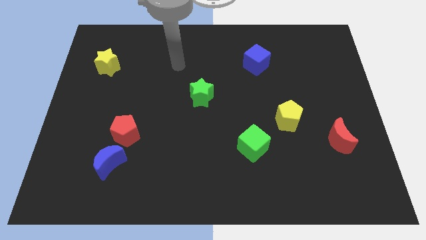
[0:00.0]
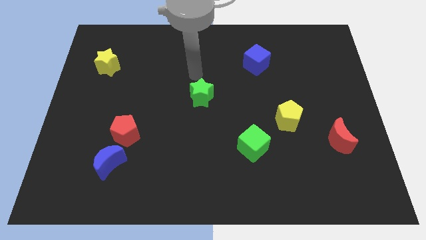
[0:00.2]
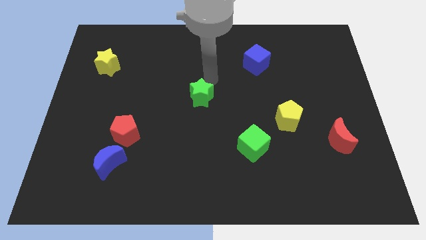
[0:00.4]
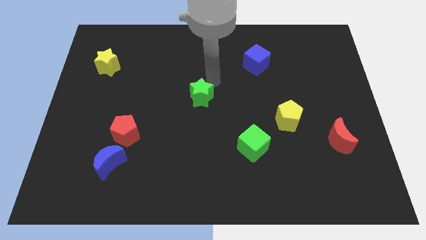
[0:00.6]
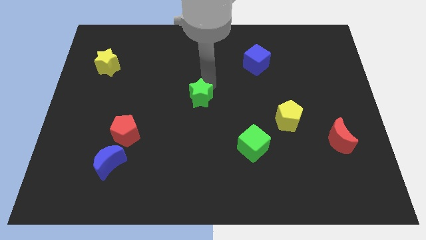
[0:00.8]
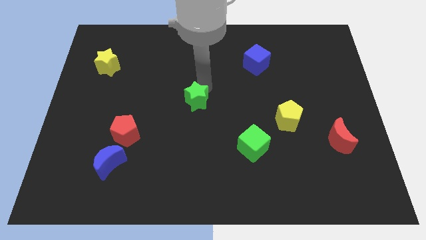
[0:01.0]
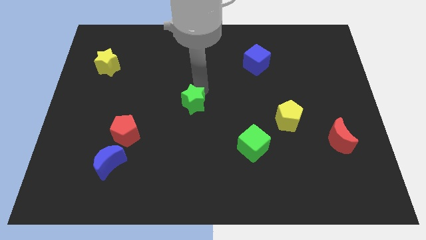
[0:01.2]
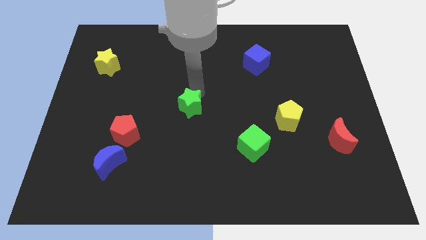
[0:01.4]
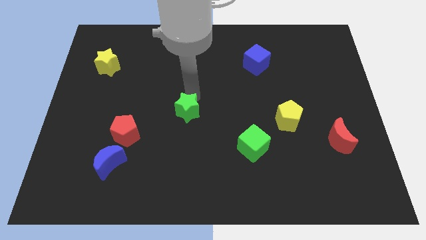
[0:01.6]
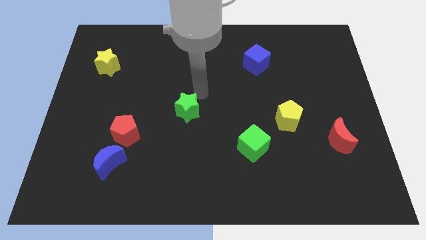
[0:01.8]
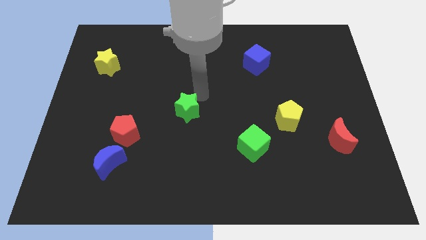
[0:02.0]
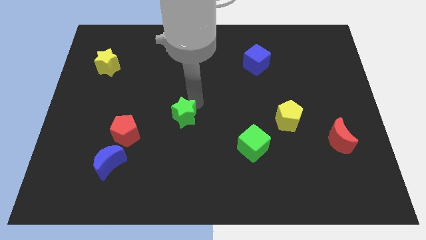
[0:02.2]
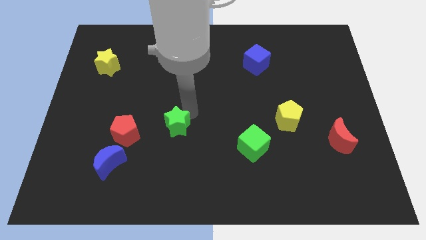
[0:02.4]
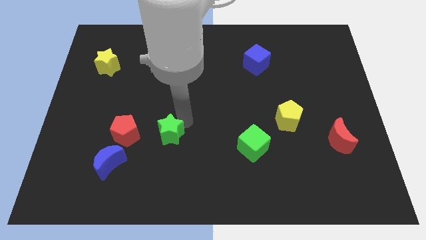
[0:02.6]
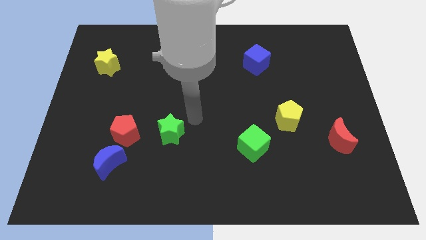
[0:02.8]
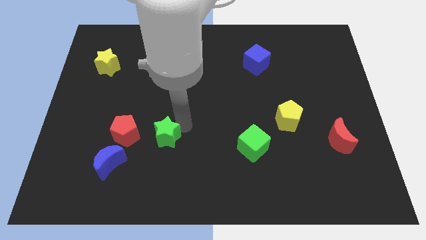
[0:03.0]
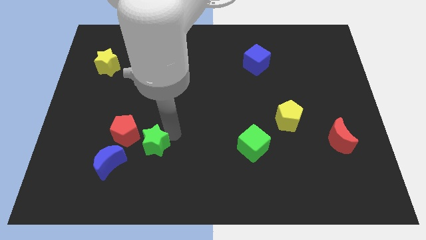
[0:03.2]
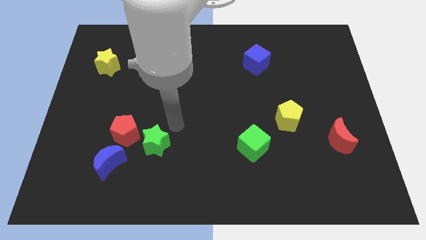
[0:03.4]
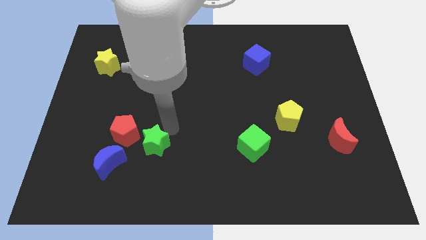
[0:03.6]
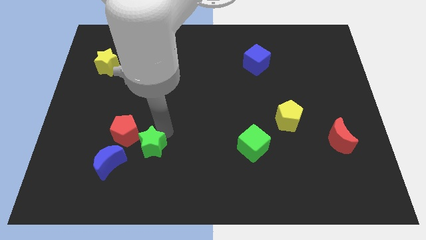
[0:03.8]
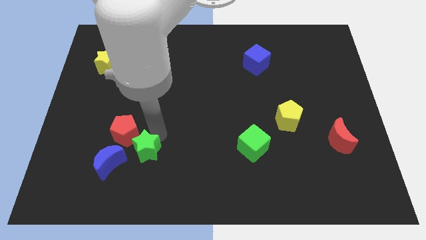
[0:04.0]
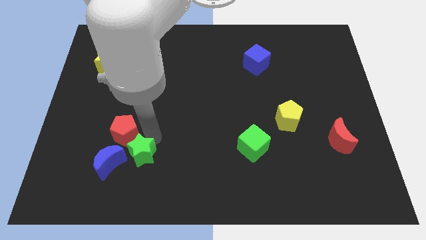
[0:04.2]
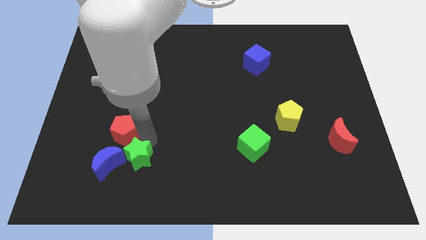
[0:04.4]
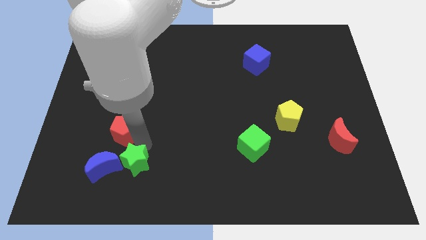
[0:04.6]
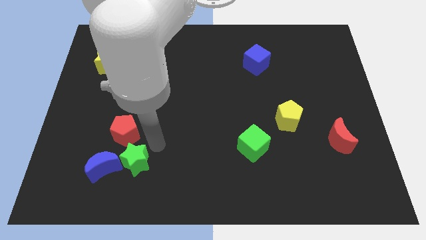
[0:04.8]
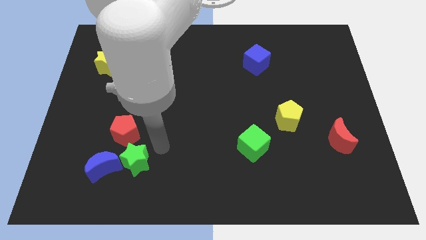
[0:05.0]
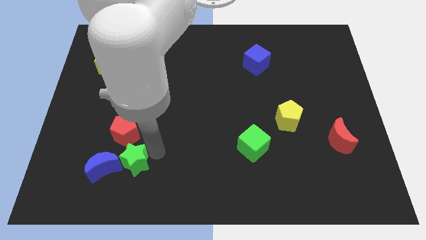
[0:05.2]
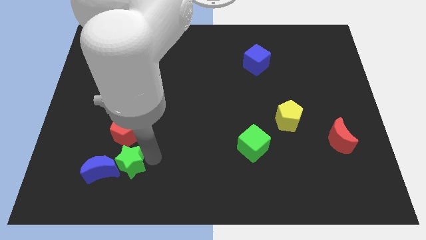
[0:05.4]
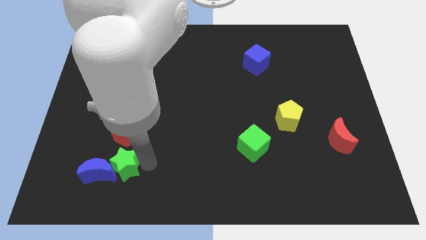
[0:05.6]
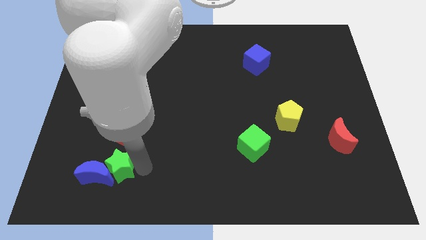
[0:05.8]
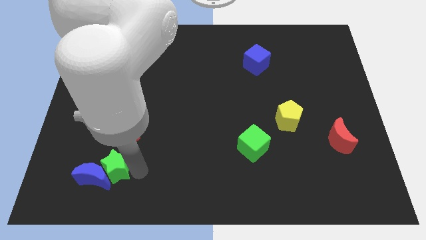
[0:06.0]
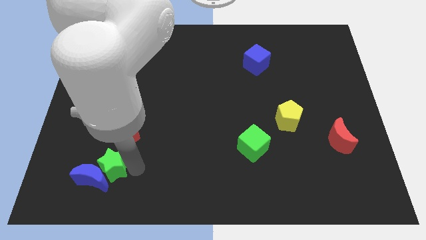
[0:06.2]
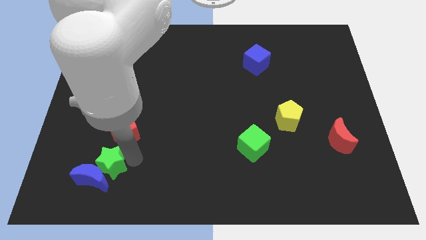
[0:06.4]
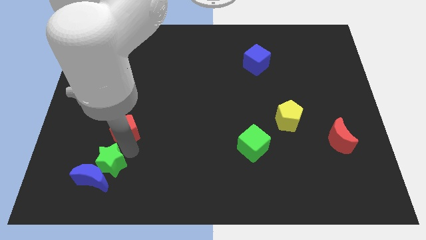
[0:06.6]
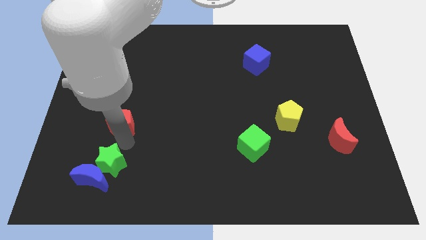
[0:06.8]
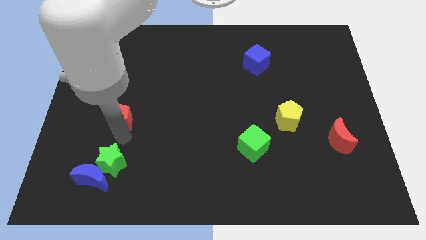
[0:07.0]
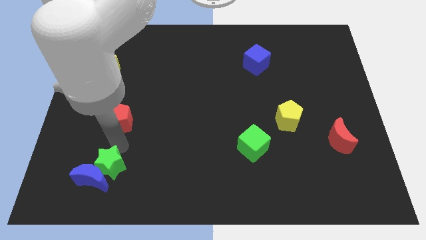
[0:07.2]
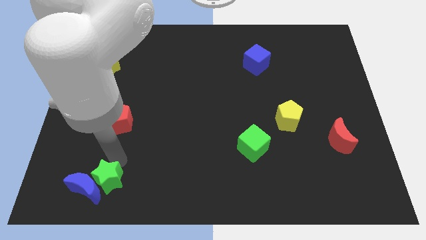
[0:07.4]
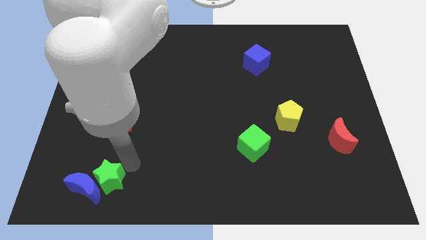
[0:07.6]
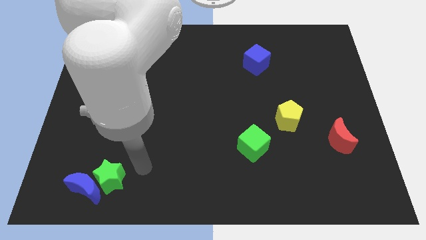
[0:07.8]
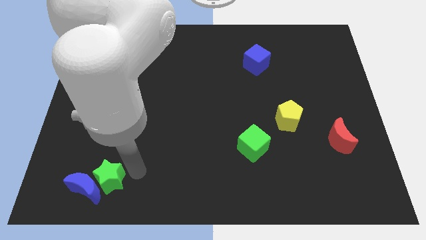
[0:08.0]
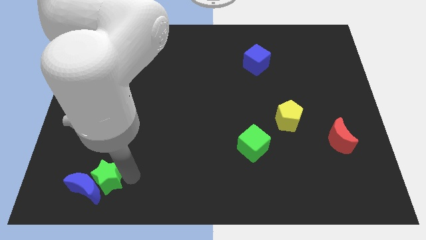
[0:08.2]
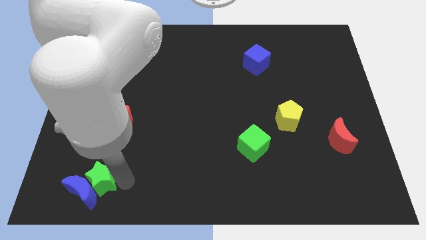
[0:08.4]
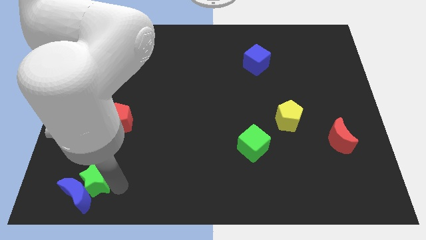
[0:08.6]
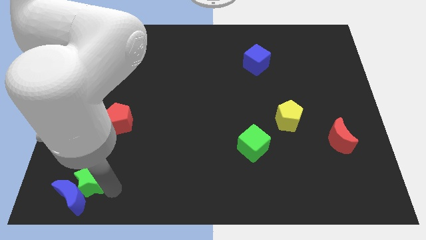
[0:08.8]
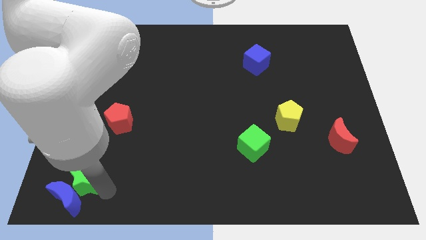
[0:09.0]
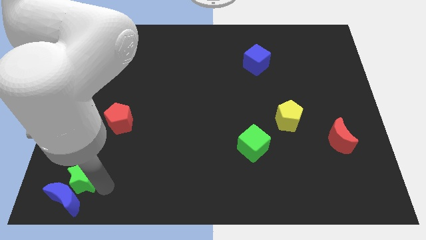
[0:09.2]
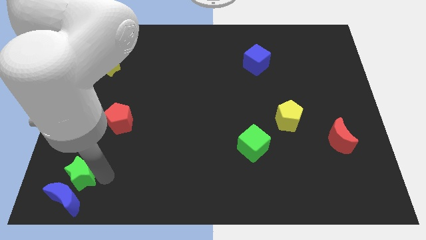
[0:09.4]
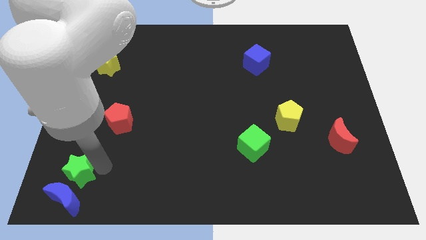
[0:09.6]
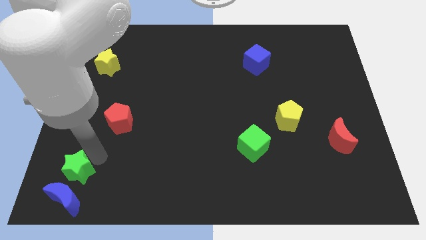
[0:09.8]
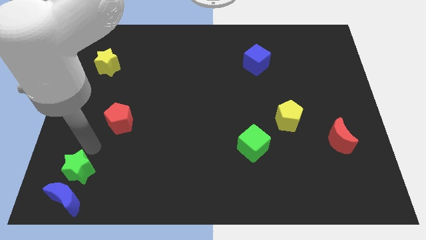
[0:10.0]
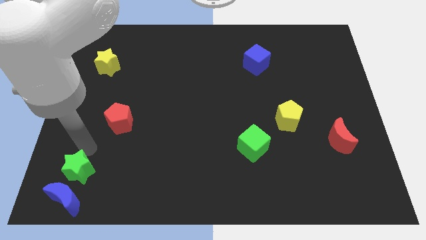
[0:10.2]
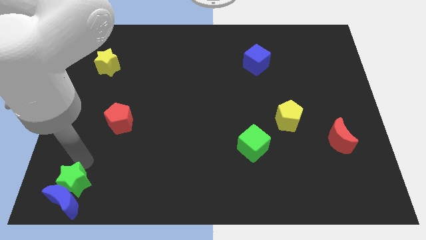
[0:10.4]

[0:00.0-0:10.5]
move the green star to the bottom left

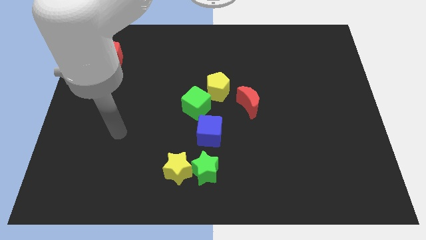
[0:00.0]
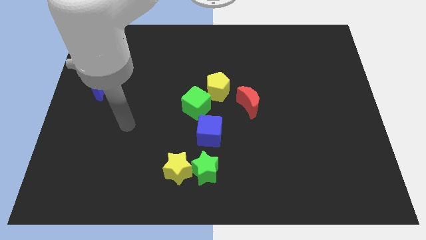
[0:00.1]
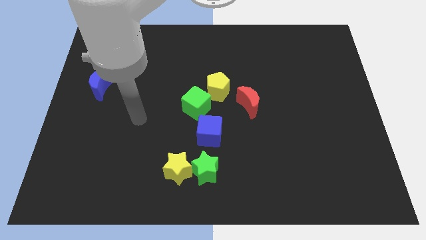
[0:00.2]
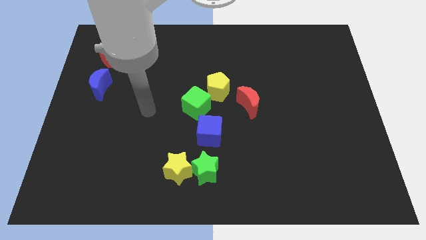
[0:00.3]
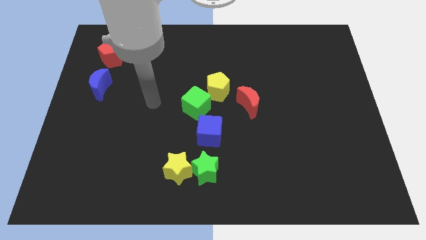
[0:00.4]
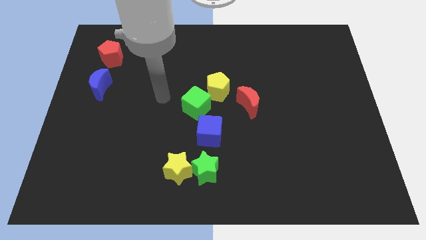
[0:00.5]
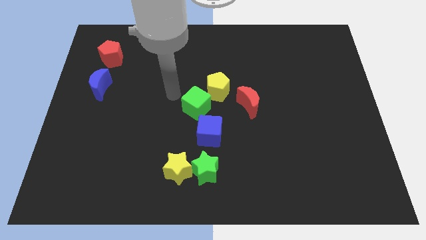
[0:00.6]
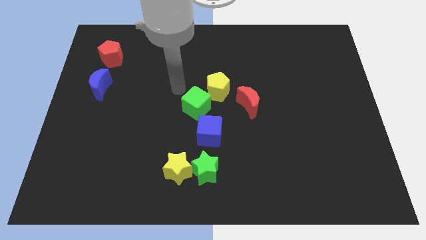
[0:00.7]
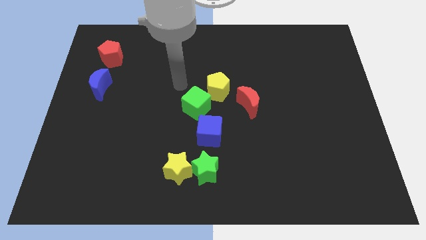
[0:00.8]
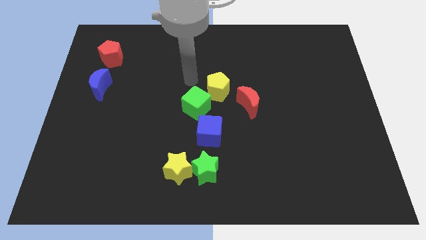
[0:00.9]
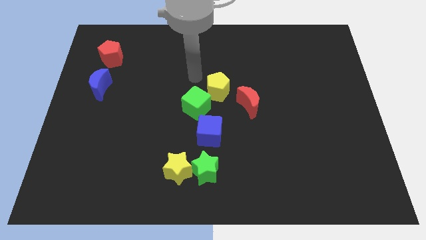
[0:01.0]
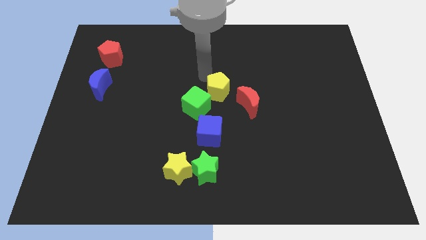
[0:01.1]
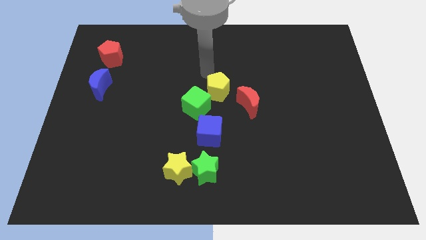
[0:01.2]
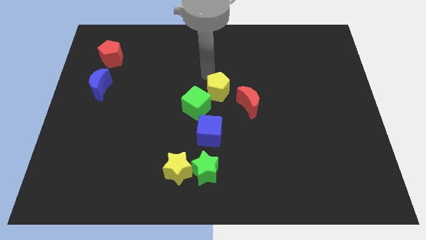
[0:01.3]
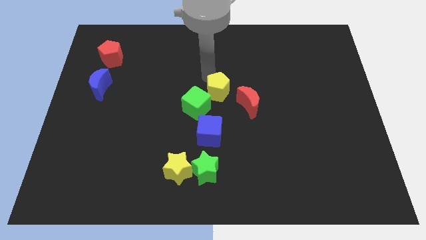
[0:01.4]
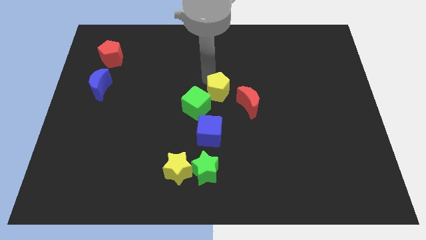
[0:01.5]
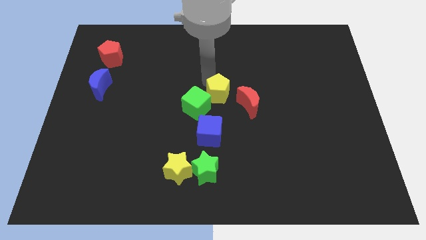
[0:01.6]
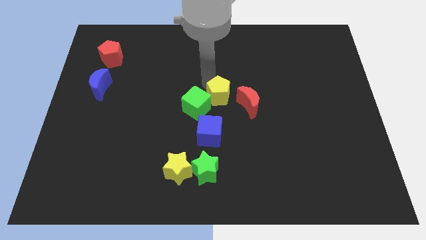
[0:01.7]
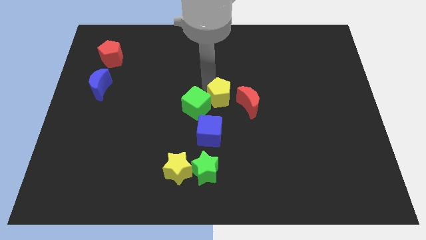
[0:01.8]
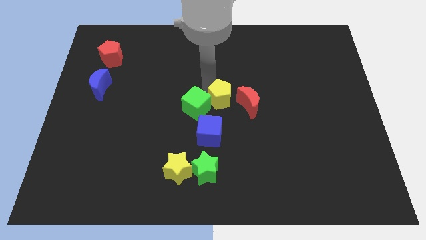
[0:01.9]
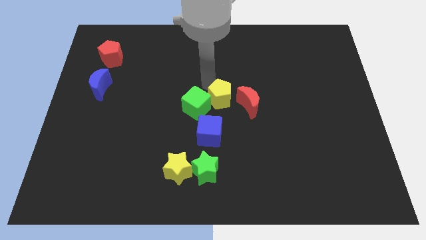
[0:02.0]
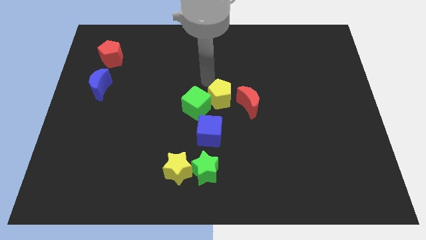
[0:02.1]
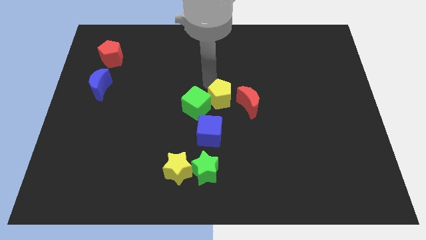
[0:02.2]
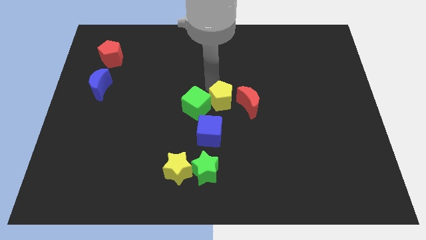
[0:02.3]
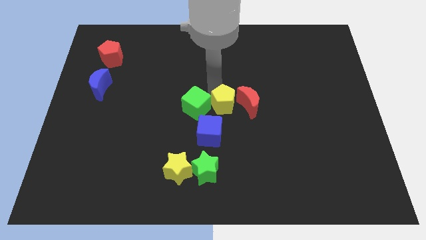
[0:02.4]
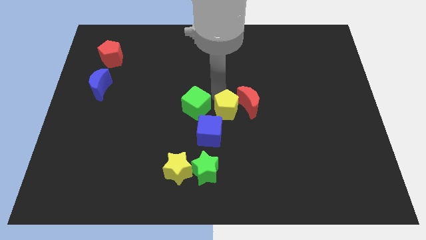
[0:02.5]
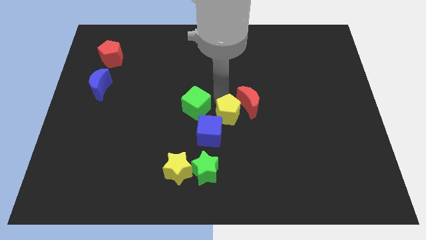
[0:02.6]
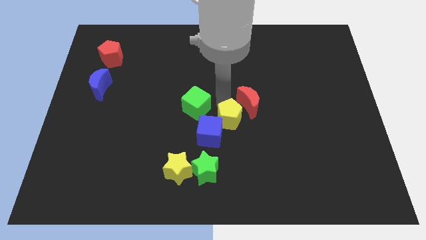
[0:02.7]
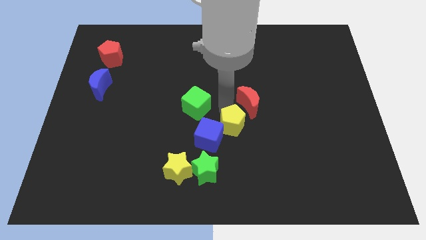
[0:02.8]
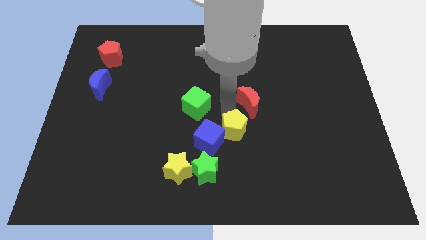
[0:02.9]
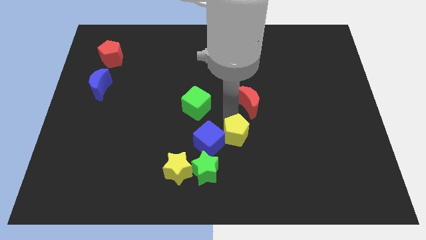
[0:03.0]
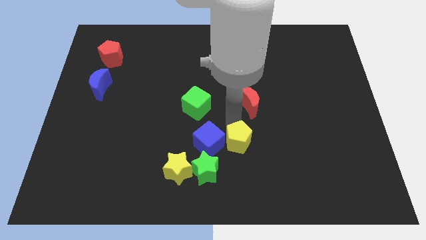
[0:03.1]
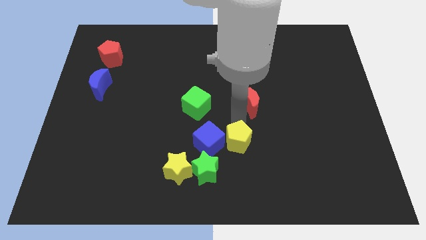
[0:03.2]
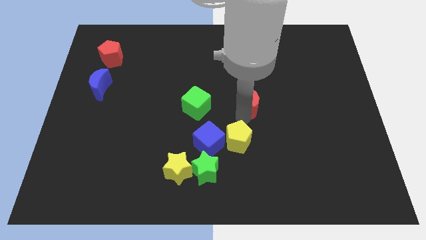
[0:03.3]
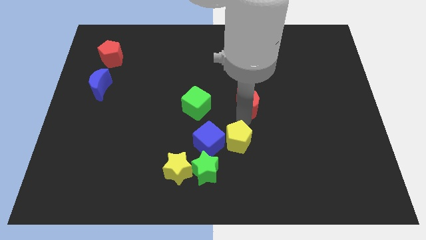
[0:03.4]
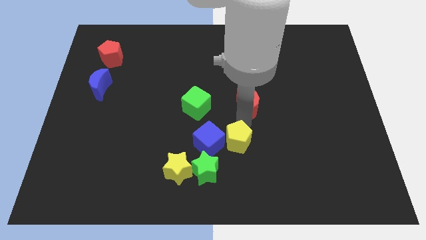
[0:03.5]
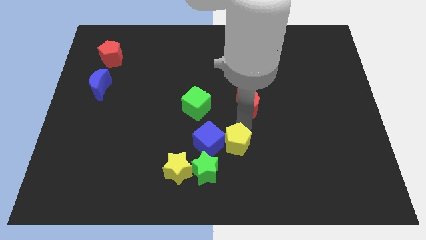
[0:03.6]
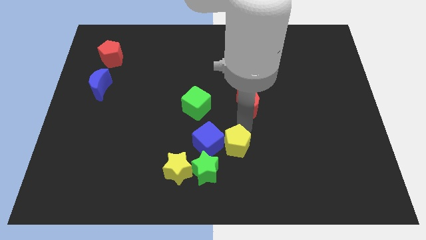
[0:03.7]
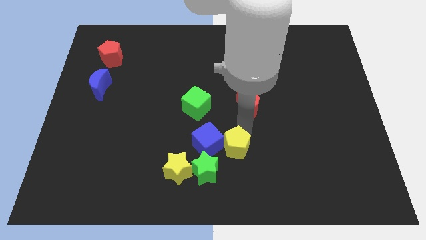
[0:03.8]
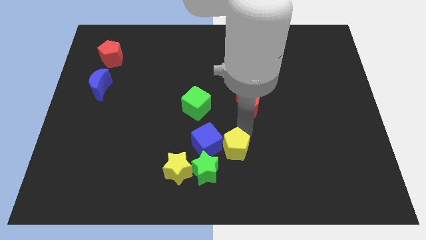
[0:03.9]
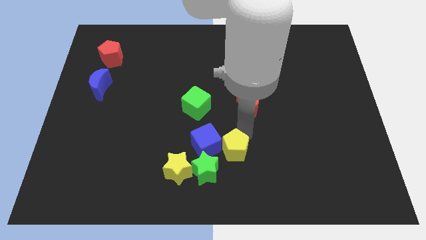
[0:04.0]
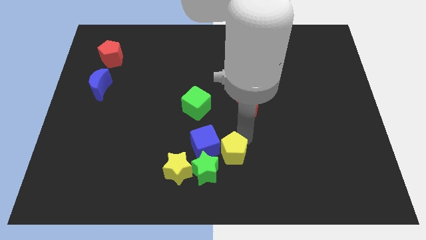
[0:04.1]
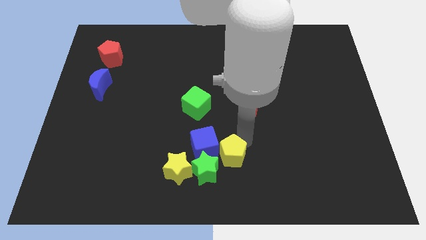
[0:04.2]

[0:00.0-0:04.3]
move the yellow pentagon to the bottom side
